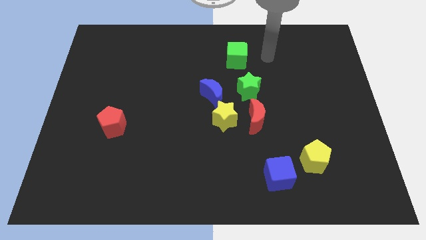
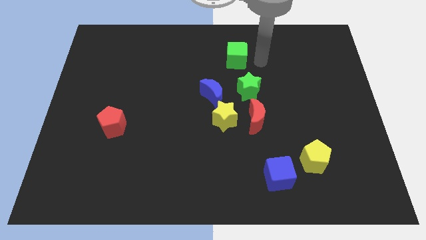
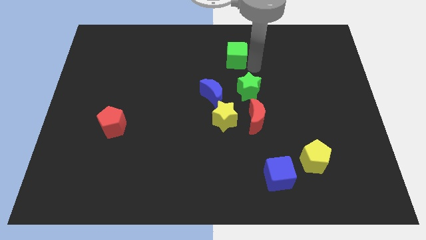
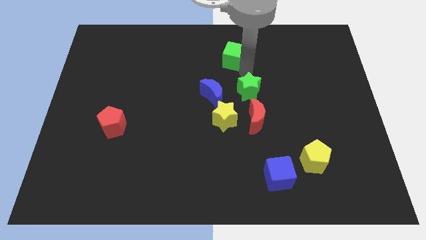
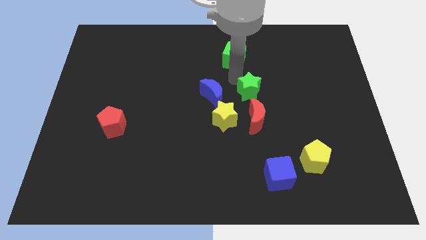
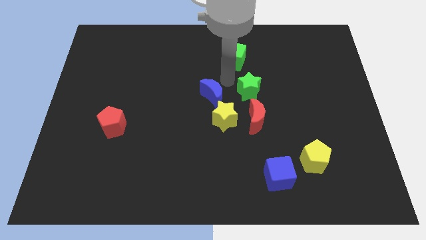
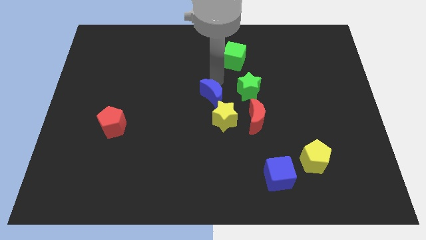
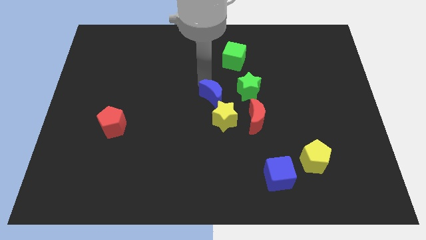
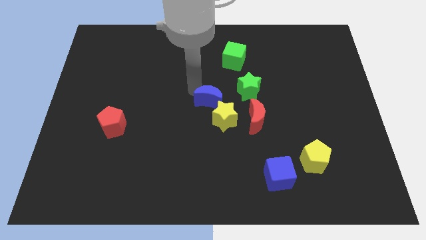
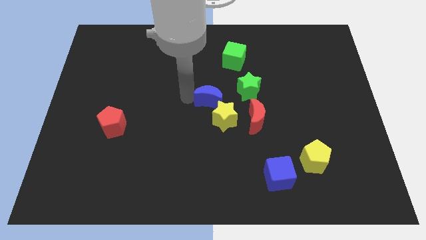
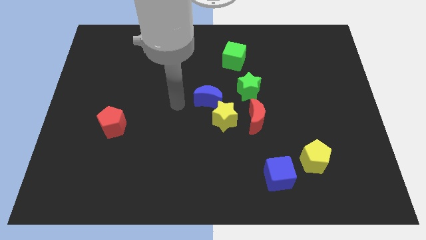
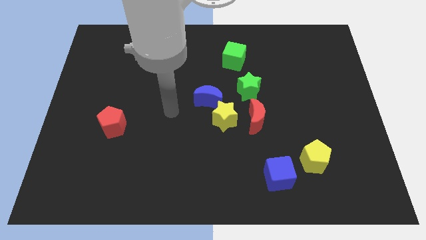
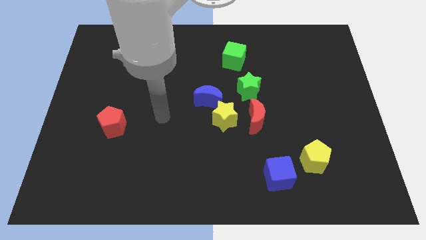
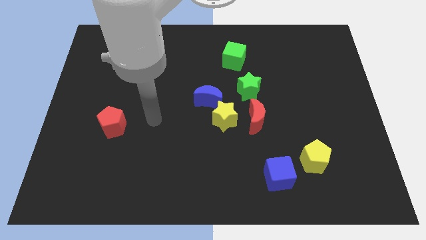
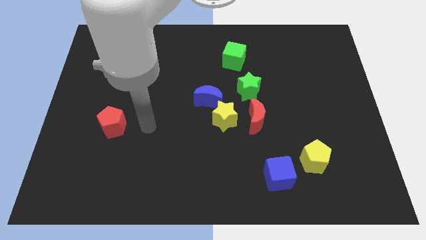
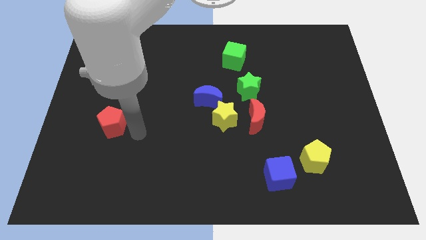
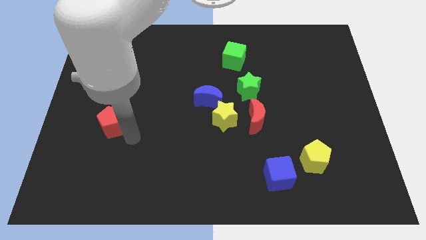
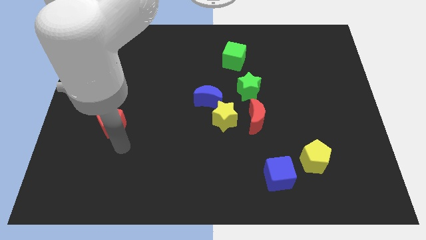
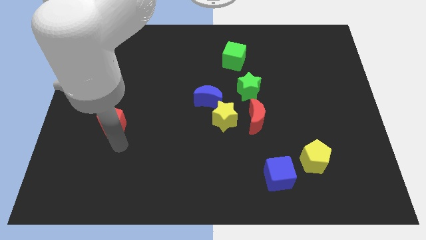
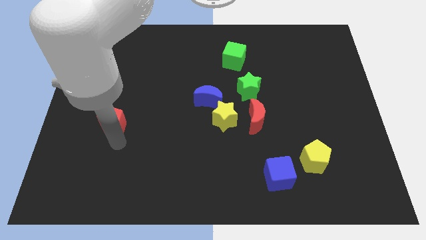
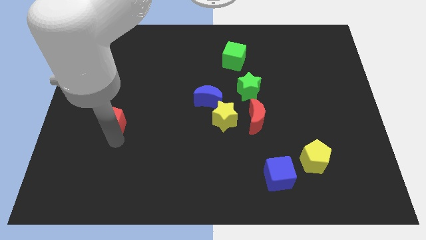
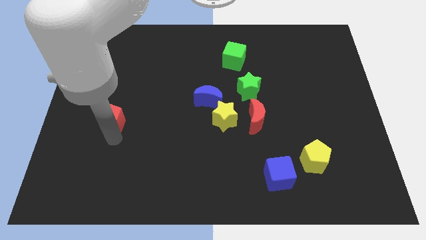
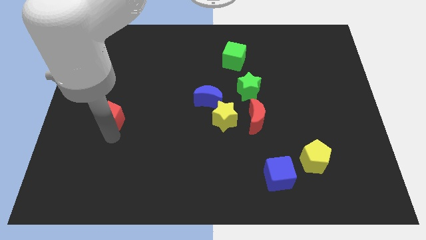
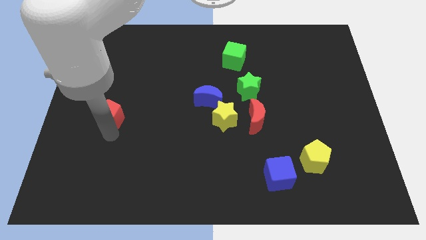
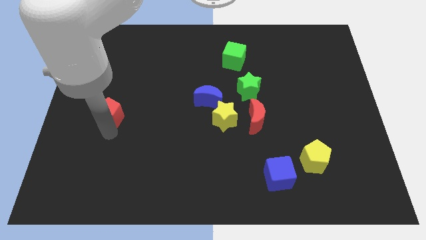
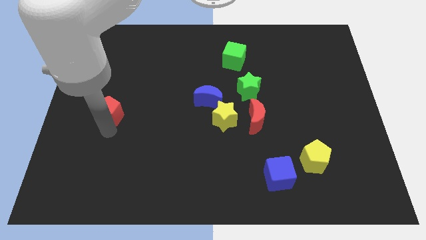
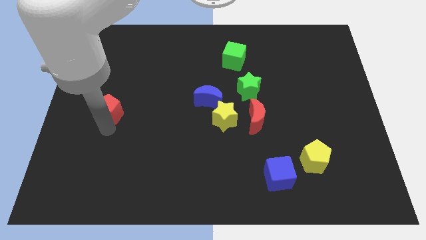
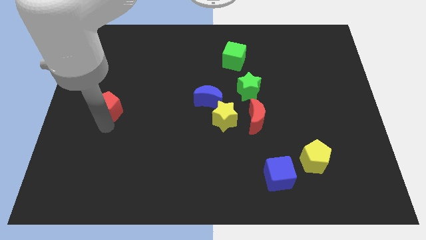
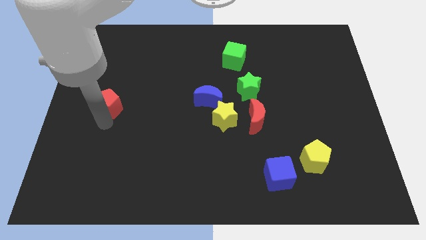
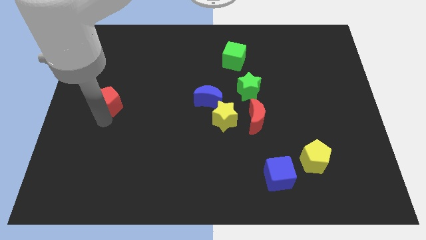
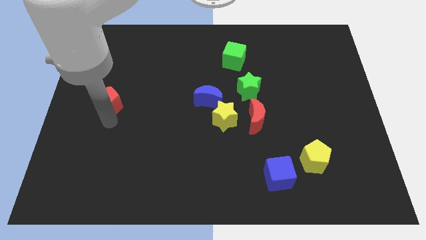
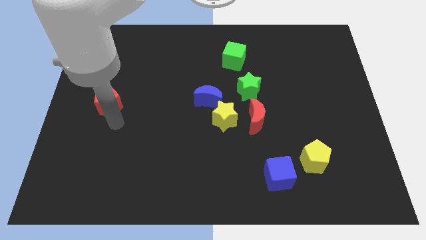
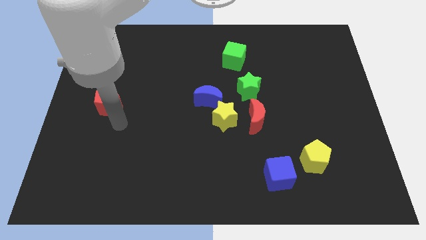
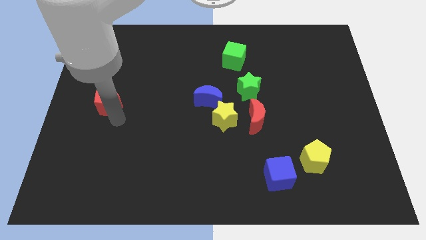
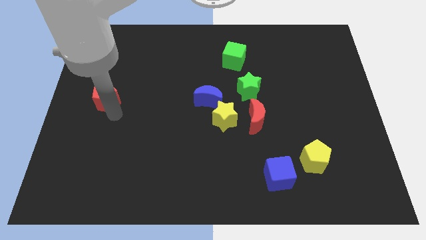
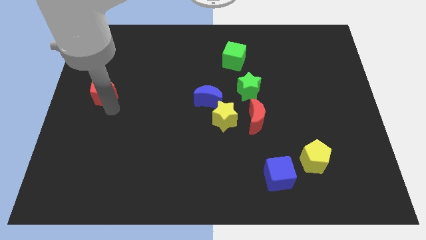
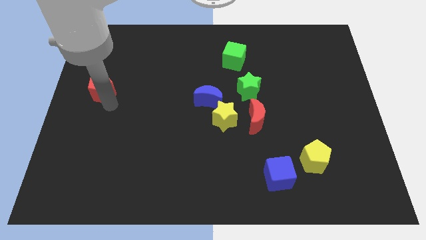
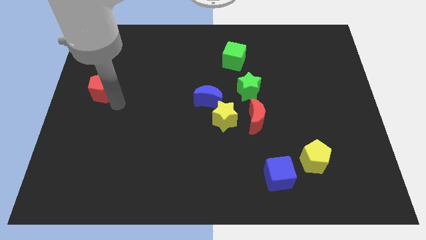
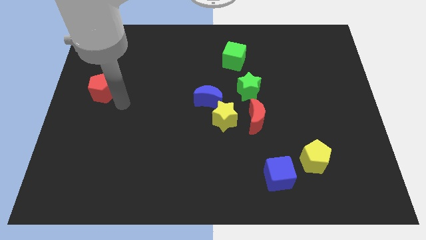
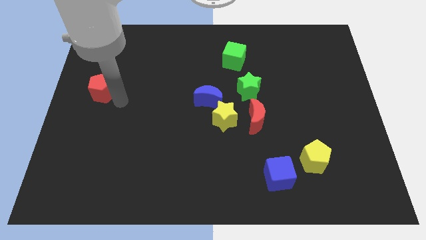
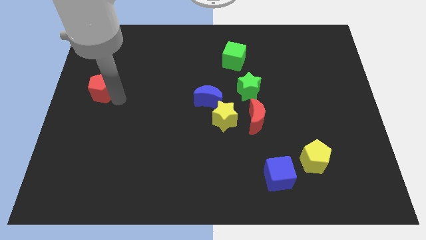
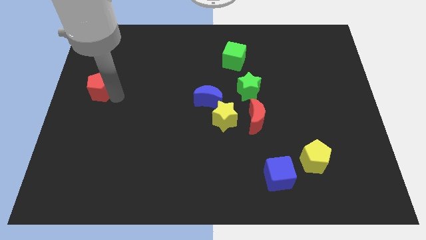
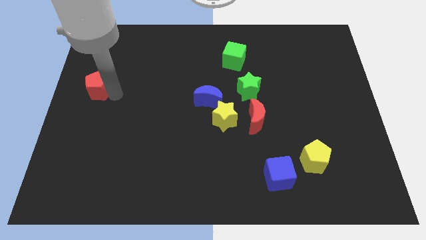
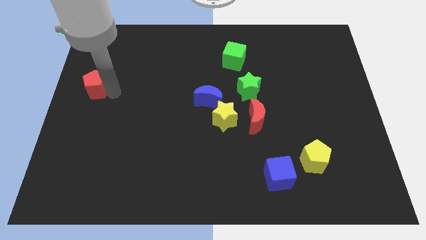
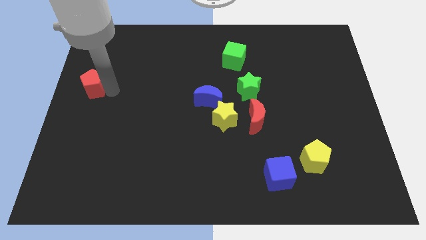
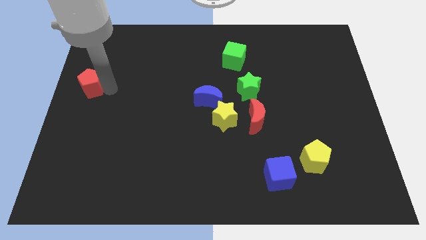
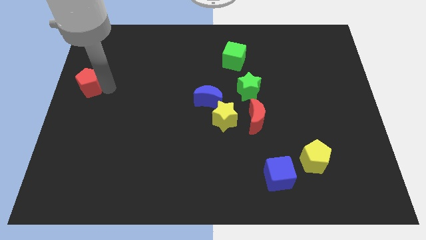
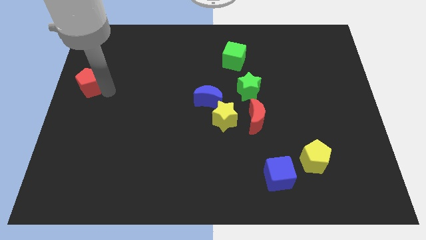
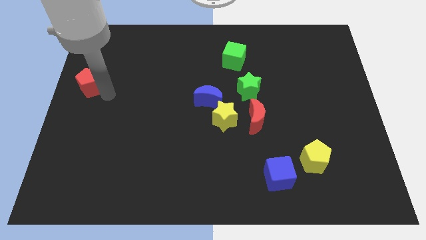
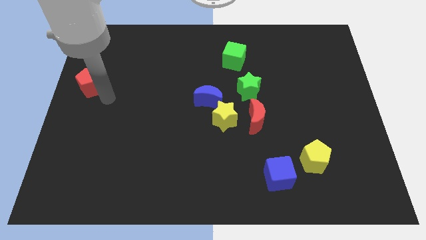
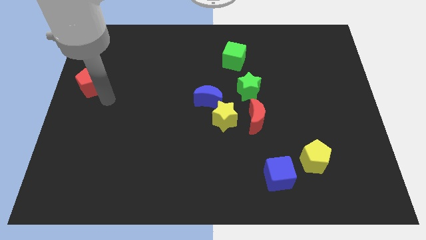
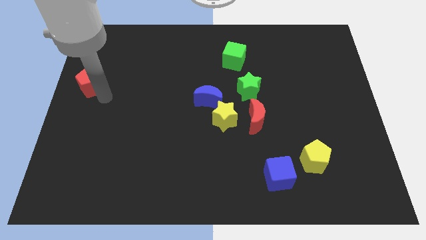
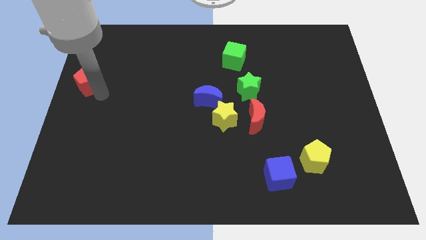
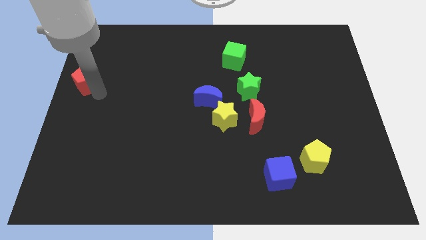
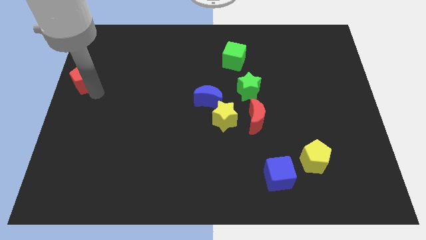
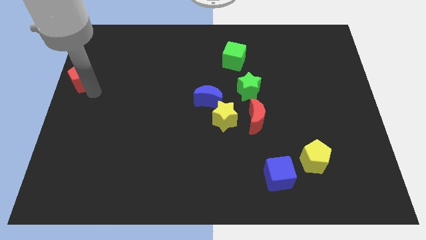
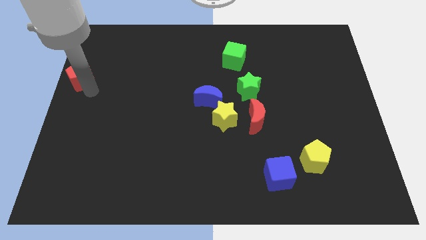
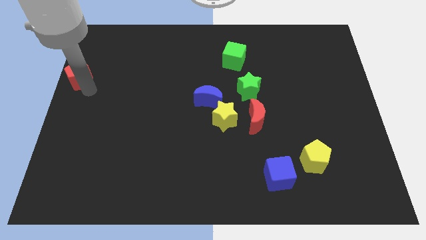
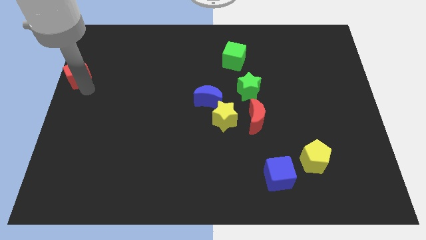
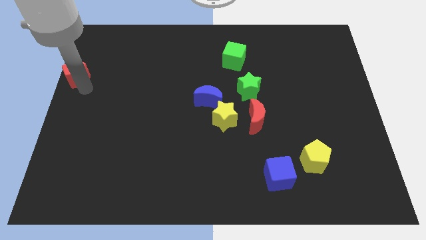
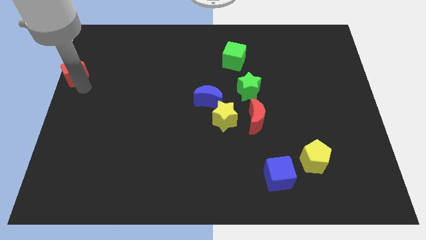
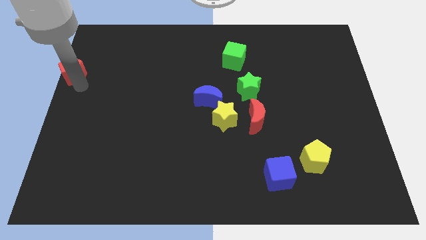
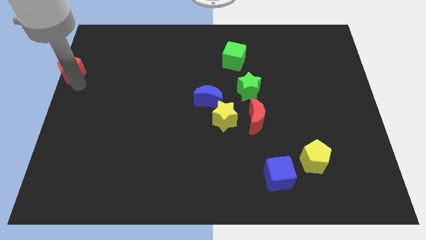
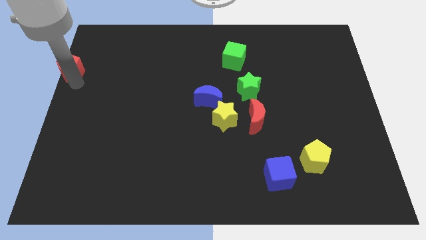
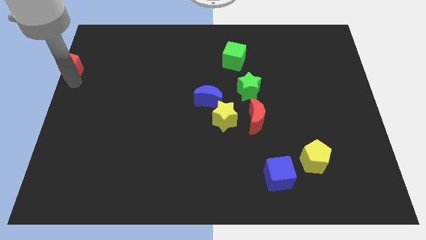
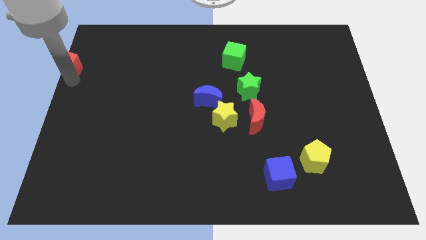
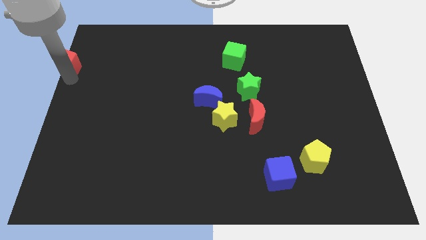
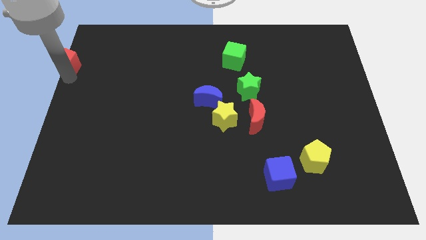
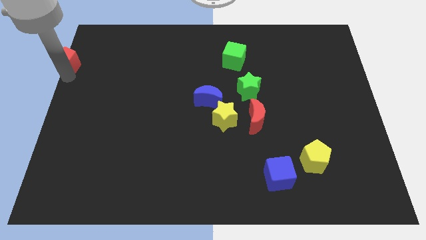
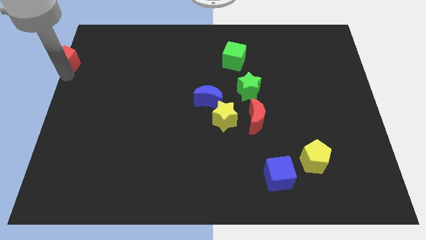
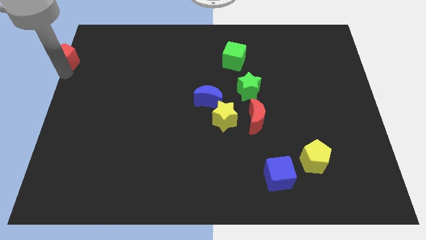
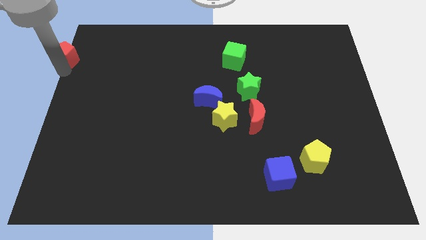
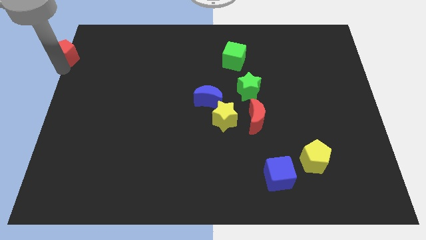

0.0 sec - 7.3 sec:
slide the red pentagon to the top left

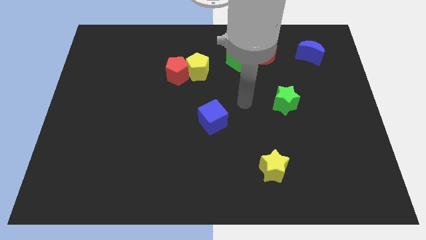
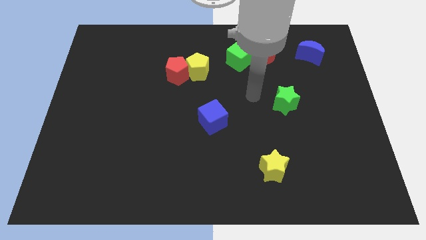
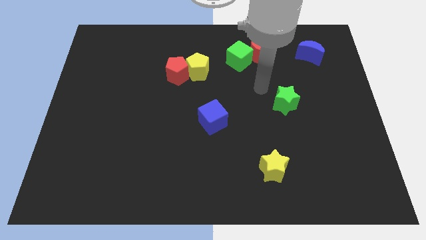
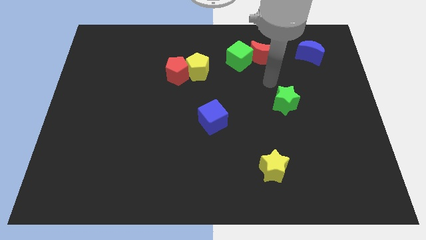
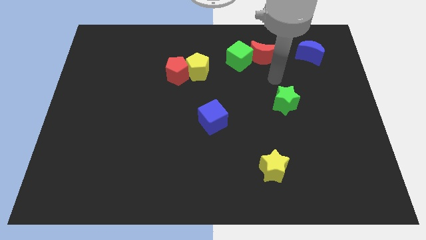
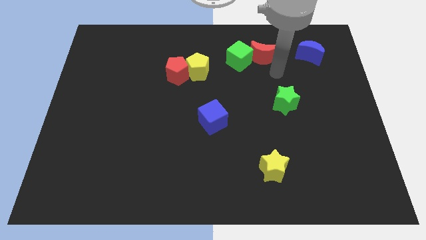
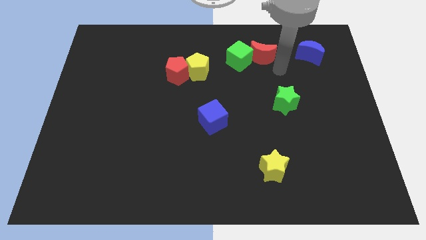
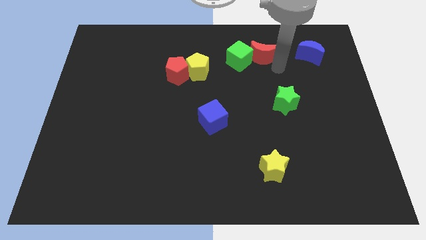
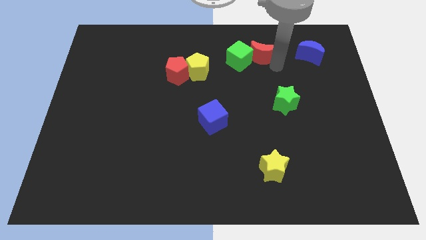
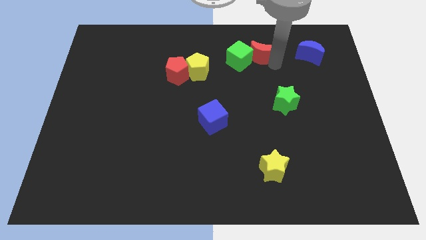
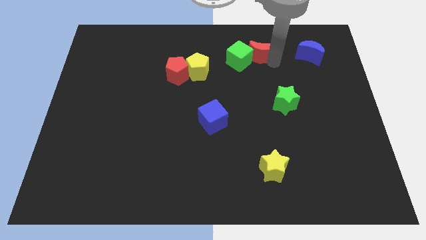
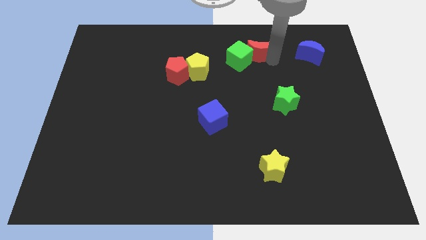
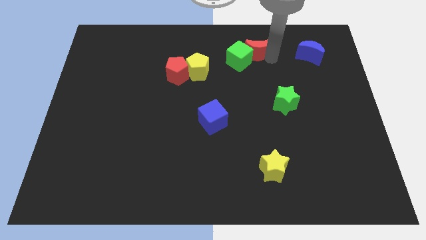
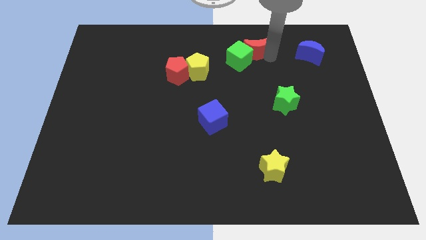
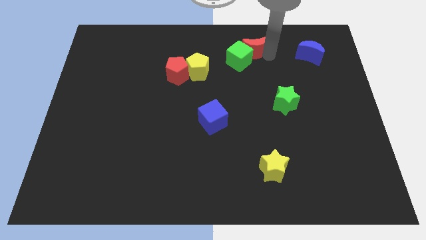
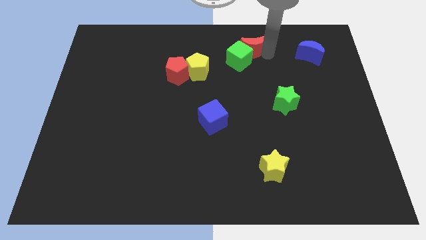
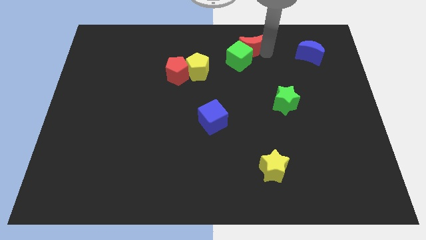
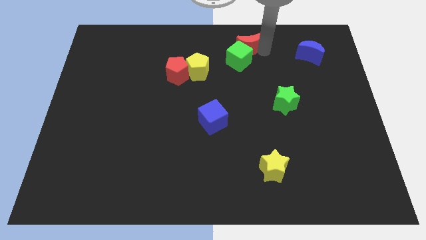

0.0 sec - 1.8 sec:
move the red moon to the towards your base
